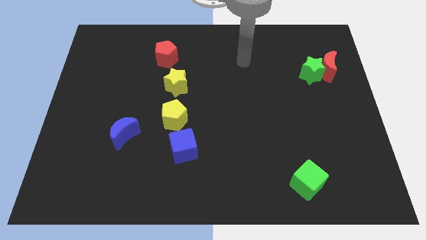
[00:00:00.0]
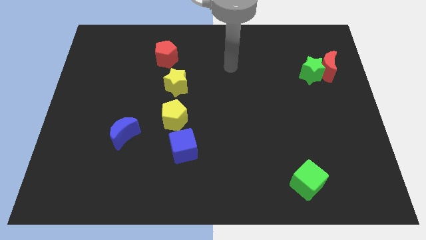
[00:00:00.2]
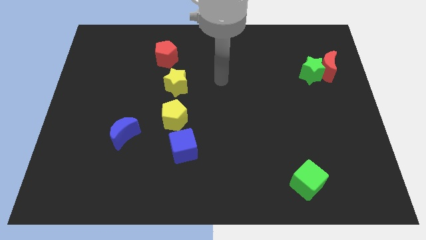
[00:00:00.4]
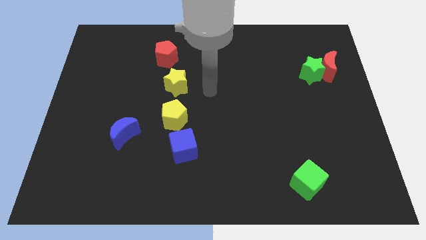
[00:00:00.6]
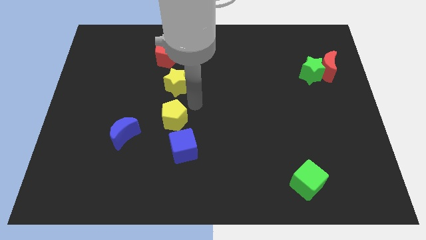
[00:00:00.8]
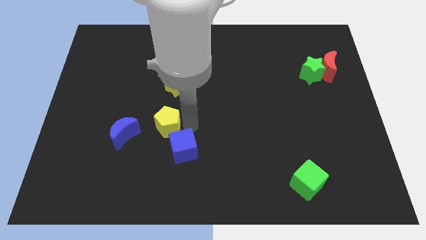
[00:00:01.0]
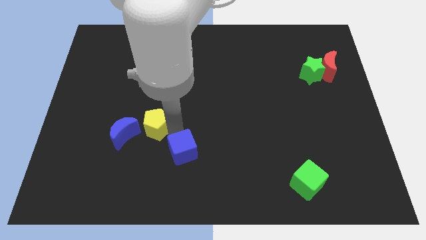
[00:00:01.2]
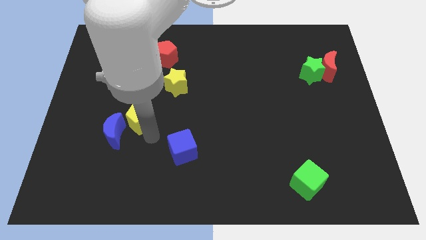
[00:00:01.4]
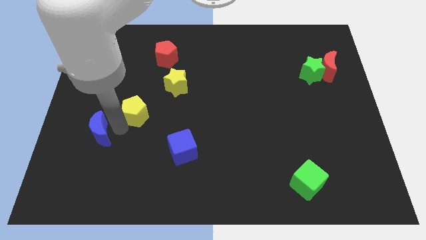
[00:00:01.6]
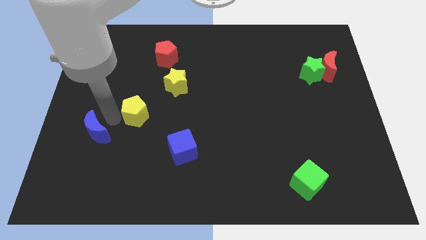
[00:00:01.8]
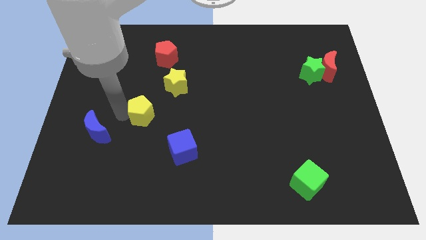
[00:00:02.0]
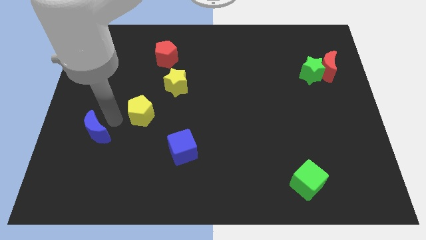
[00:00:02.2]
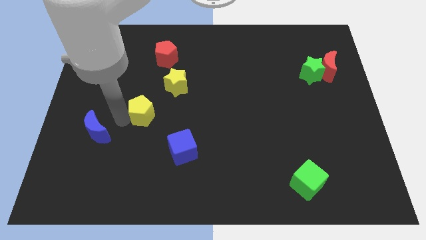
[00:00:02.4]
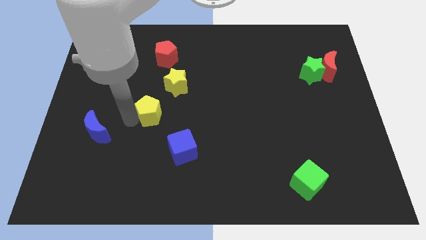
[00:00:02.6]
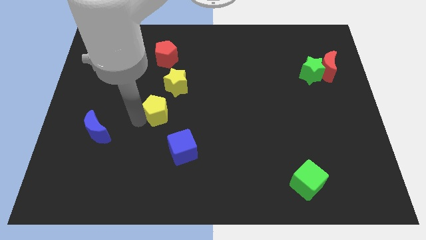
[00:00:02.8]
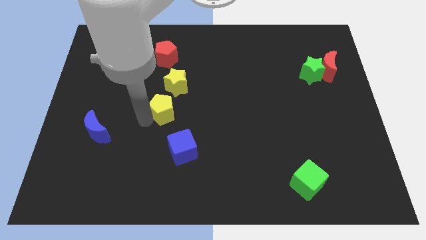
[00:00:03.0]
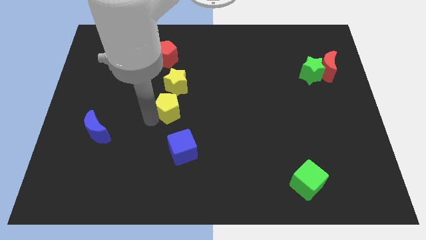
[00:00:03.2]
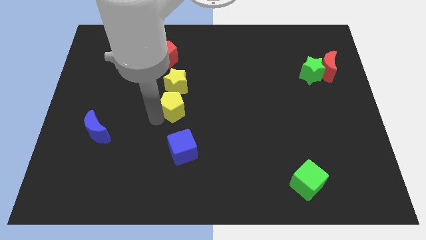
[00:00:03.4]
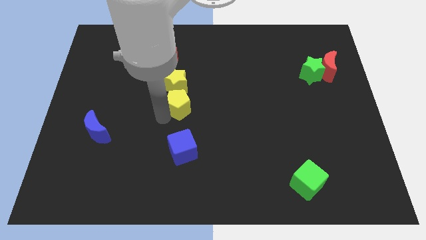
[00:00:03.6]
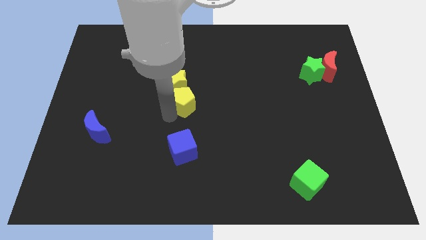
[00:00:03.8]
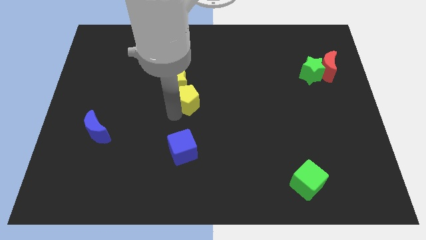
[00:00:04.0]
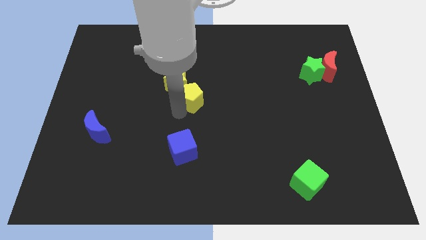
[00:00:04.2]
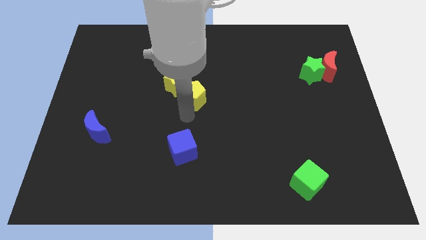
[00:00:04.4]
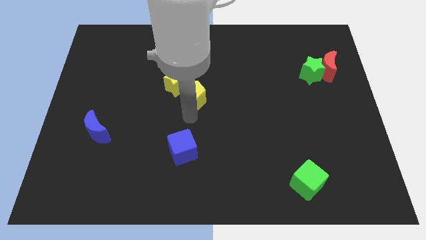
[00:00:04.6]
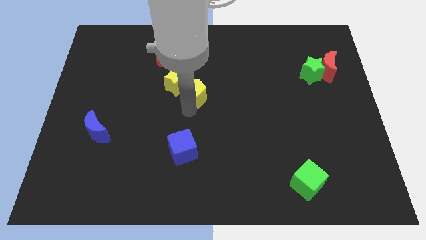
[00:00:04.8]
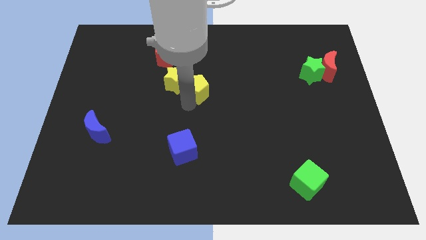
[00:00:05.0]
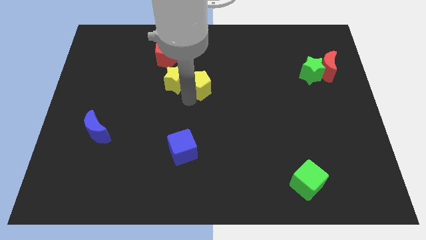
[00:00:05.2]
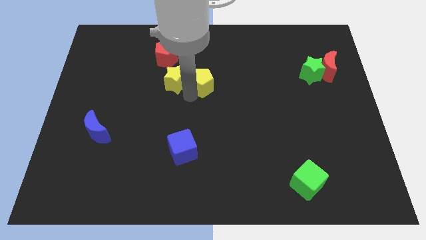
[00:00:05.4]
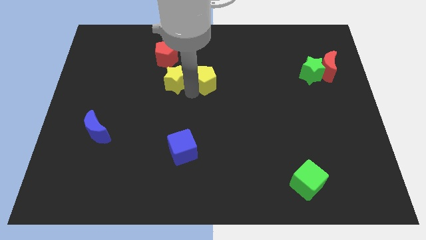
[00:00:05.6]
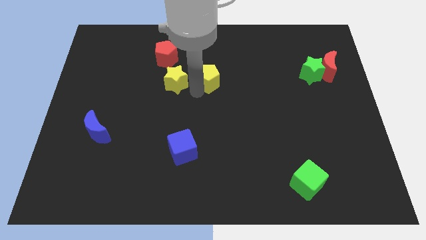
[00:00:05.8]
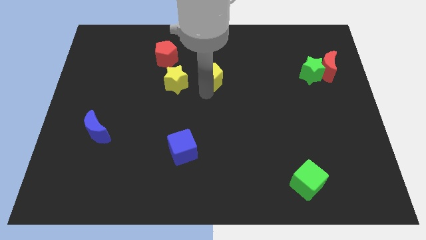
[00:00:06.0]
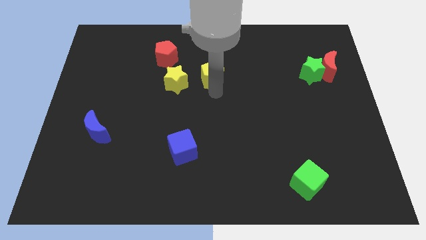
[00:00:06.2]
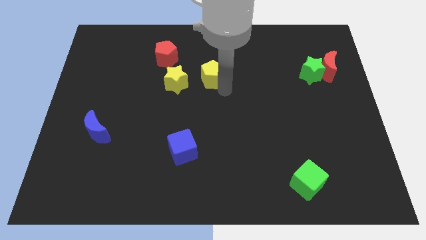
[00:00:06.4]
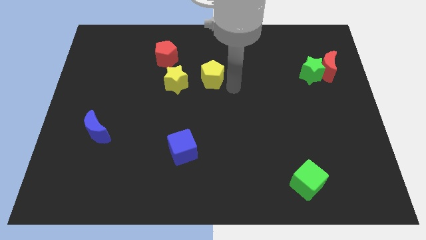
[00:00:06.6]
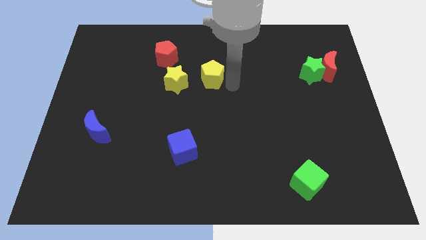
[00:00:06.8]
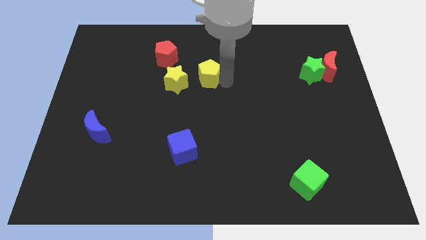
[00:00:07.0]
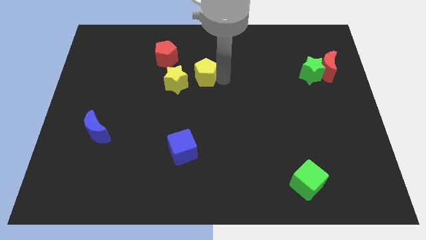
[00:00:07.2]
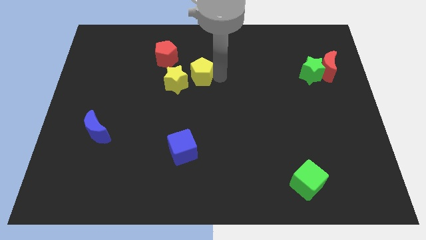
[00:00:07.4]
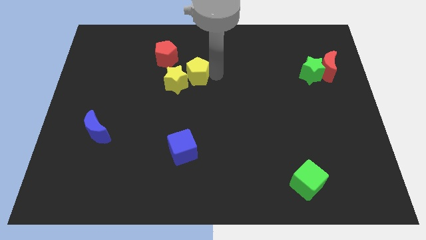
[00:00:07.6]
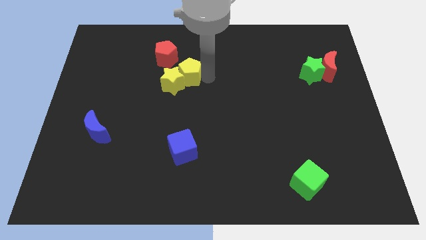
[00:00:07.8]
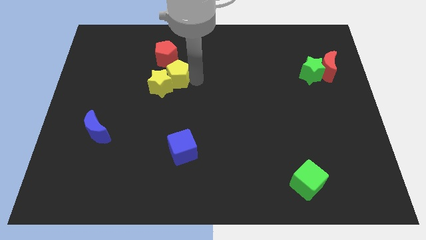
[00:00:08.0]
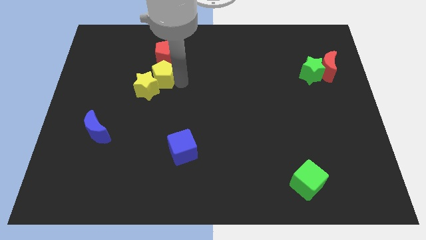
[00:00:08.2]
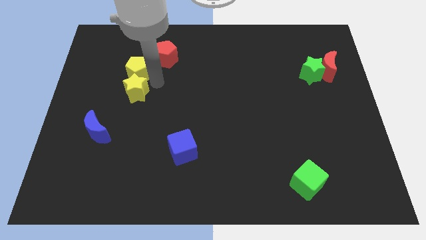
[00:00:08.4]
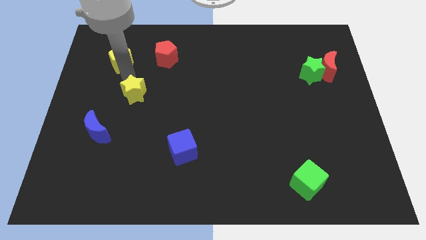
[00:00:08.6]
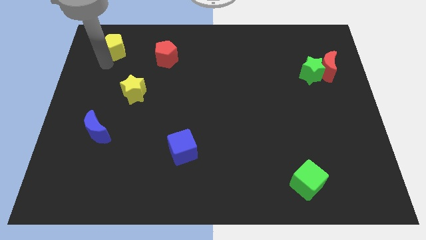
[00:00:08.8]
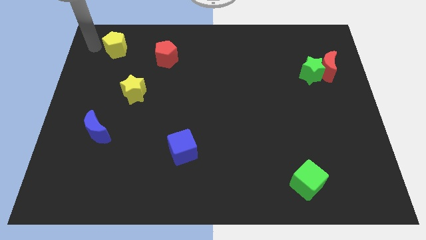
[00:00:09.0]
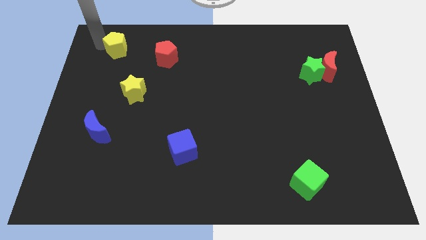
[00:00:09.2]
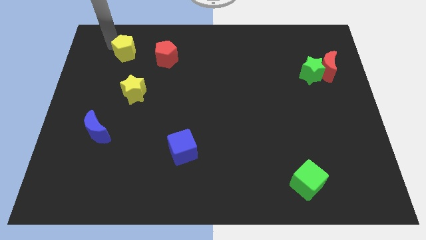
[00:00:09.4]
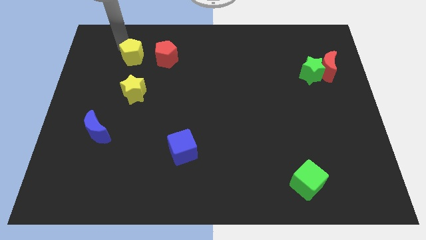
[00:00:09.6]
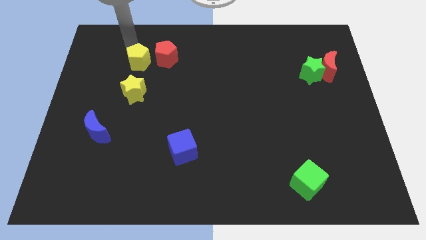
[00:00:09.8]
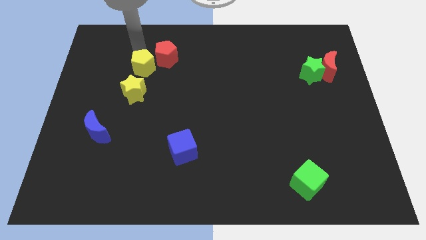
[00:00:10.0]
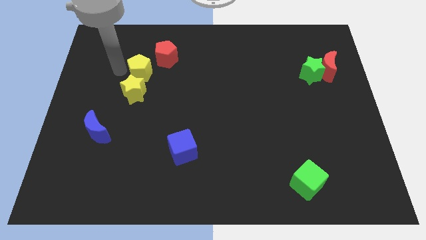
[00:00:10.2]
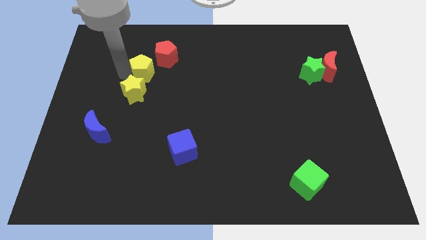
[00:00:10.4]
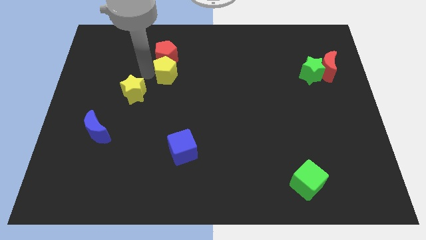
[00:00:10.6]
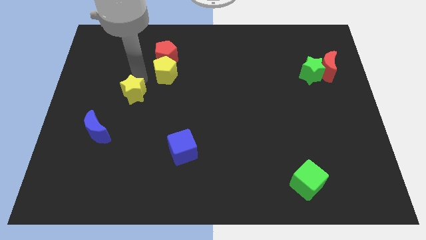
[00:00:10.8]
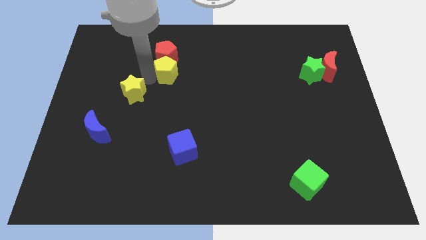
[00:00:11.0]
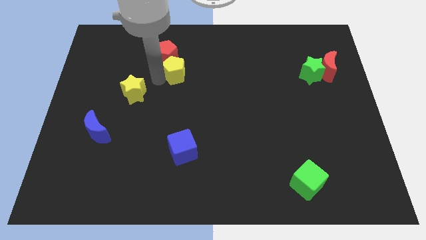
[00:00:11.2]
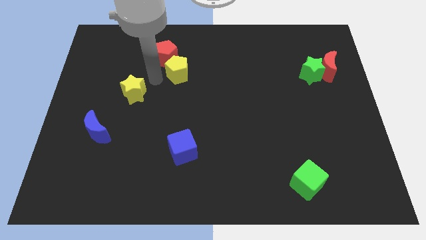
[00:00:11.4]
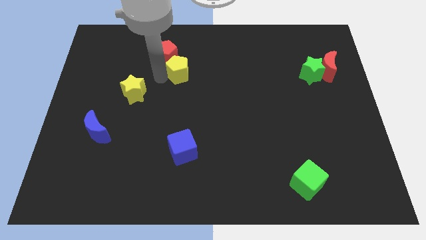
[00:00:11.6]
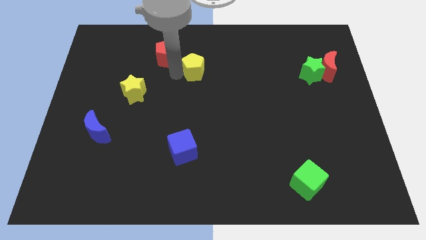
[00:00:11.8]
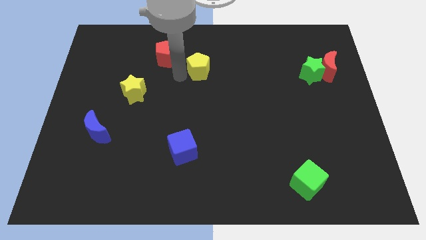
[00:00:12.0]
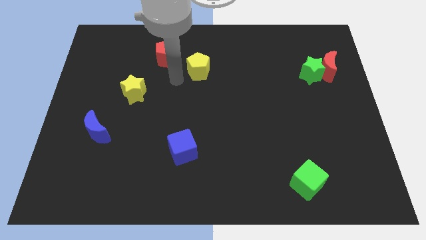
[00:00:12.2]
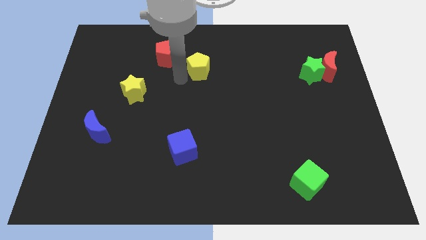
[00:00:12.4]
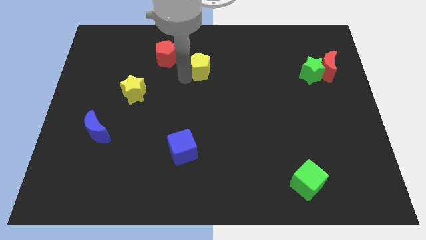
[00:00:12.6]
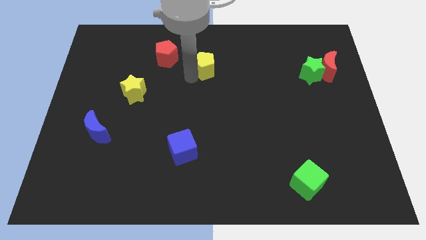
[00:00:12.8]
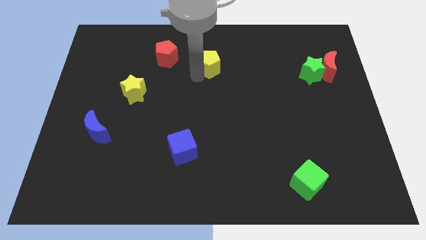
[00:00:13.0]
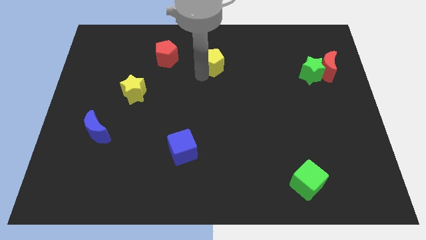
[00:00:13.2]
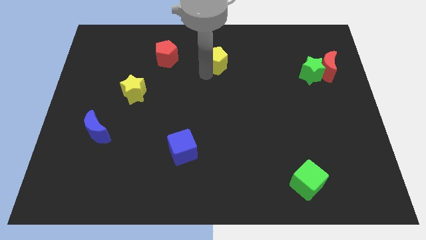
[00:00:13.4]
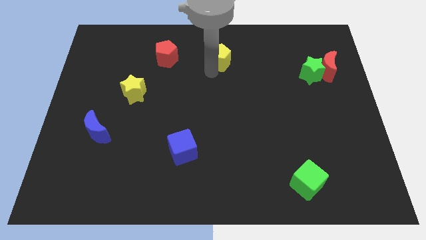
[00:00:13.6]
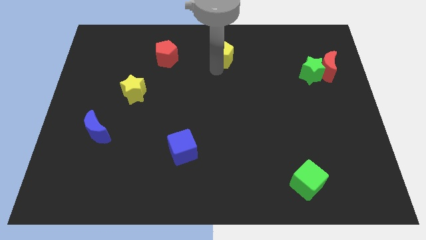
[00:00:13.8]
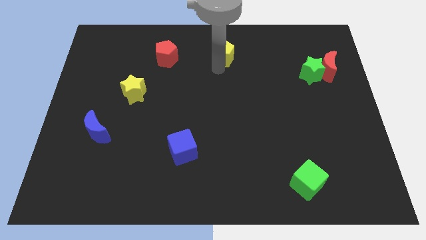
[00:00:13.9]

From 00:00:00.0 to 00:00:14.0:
push the yellow pentagon to the towards your base
